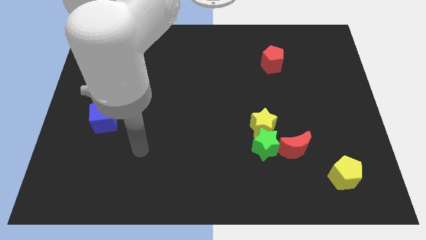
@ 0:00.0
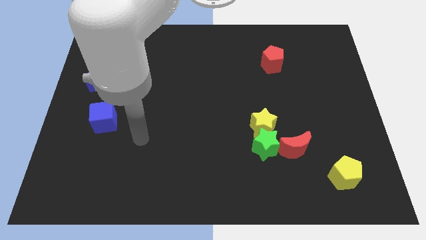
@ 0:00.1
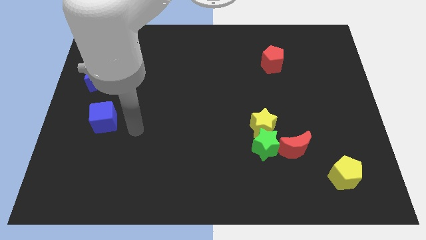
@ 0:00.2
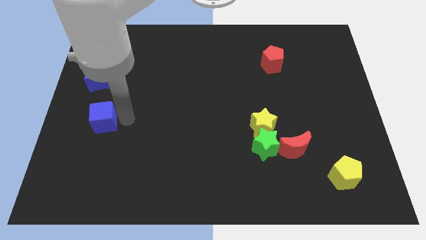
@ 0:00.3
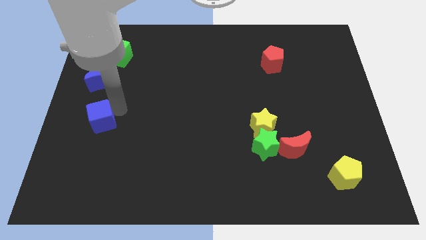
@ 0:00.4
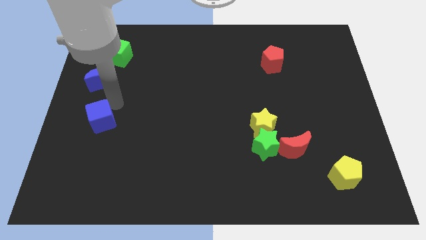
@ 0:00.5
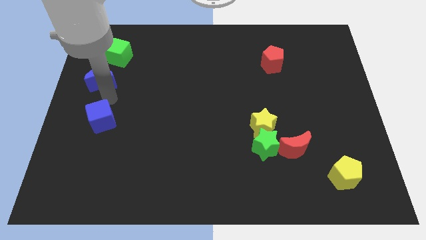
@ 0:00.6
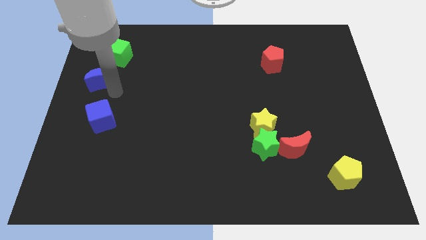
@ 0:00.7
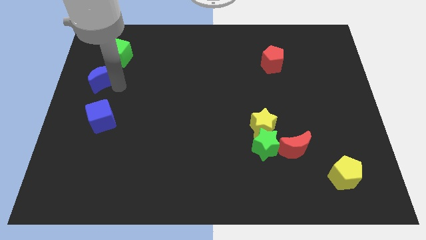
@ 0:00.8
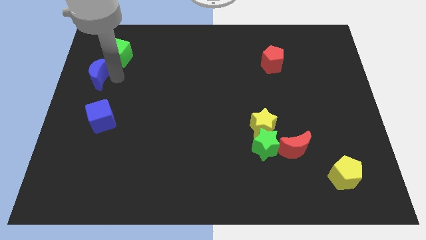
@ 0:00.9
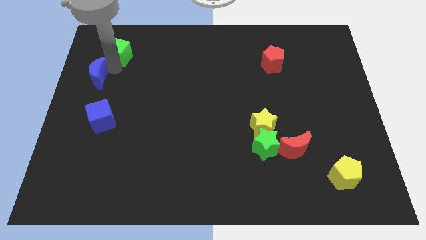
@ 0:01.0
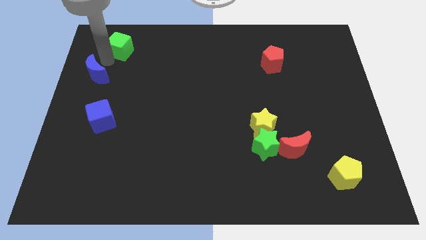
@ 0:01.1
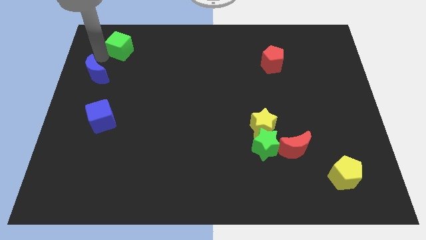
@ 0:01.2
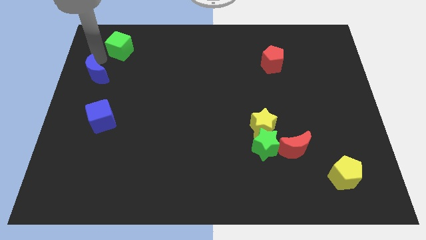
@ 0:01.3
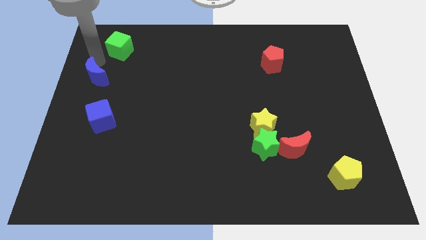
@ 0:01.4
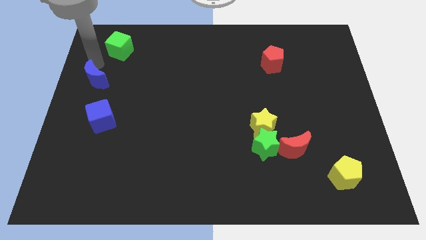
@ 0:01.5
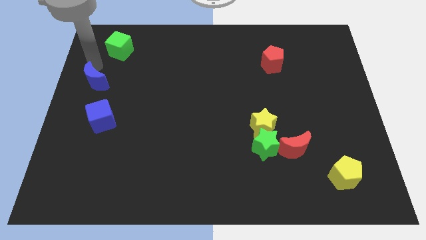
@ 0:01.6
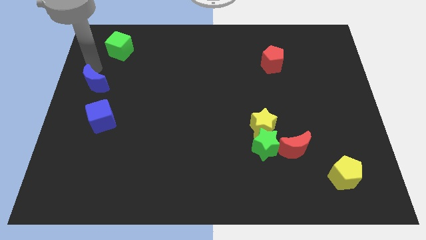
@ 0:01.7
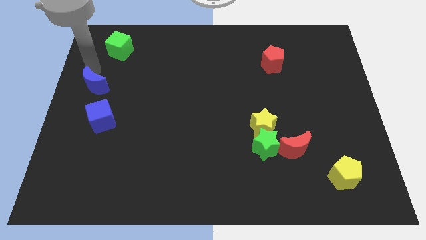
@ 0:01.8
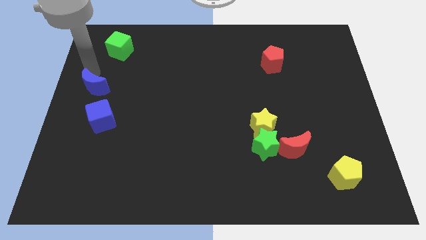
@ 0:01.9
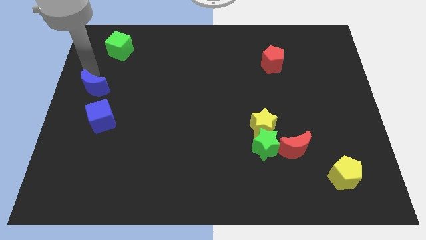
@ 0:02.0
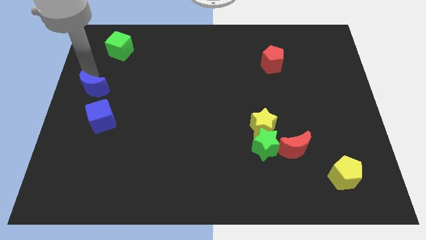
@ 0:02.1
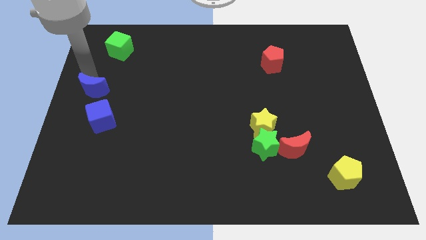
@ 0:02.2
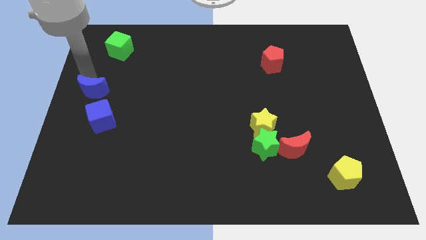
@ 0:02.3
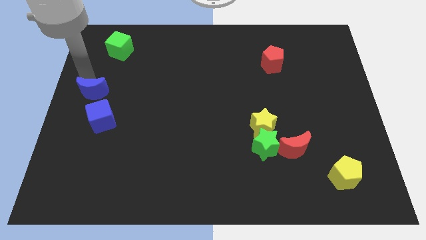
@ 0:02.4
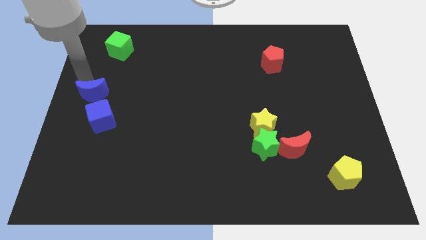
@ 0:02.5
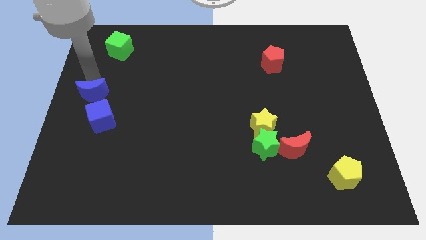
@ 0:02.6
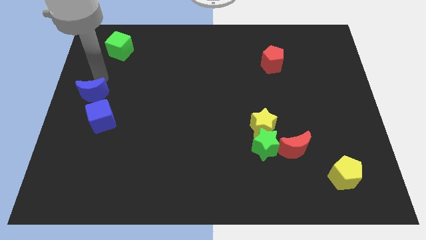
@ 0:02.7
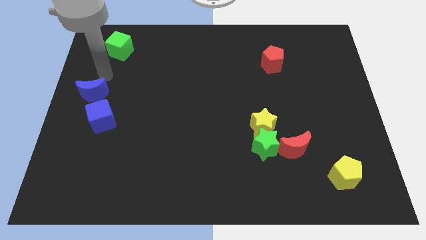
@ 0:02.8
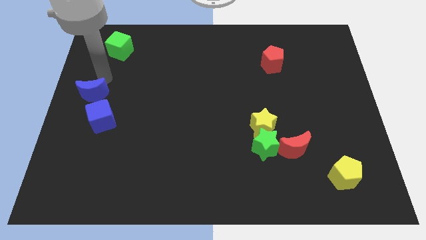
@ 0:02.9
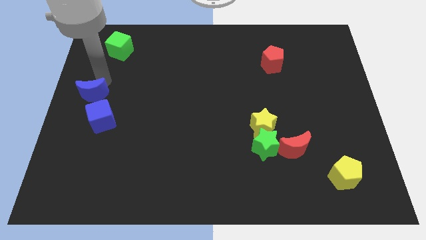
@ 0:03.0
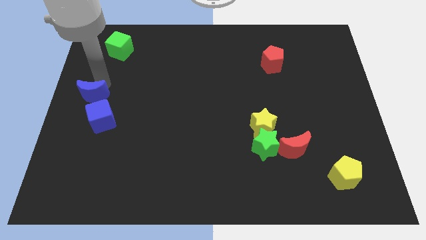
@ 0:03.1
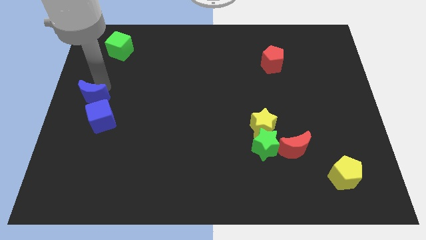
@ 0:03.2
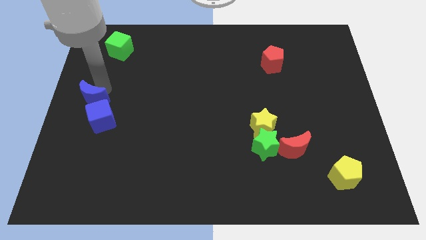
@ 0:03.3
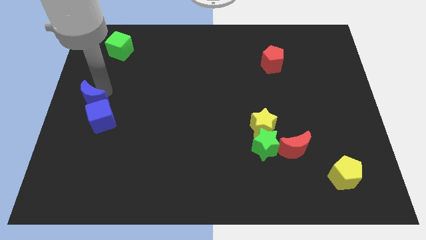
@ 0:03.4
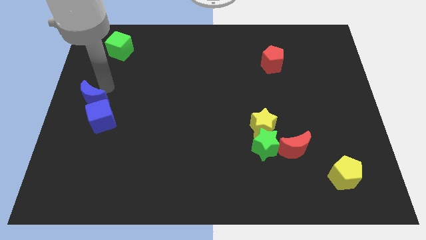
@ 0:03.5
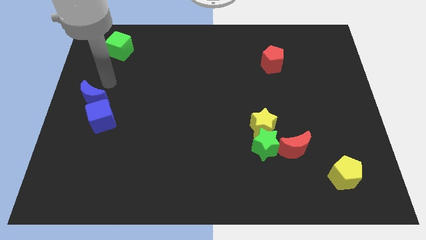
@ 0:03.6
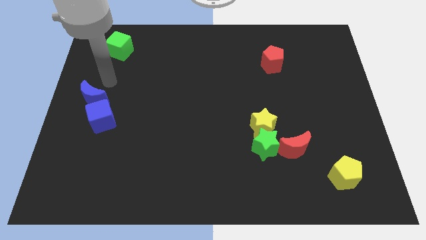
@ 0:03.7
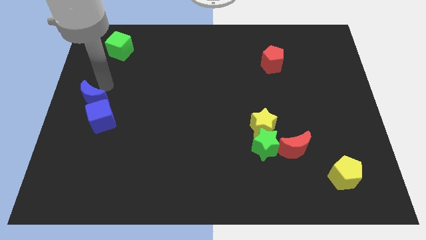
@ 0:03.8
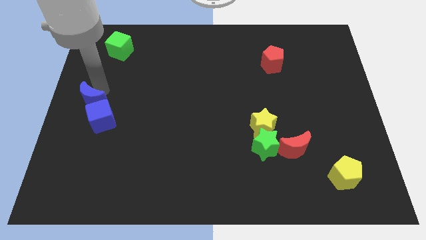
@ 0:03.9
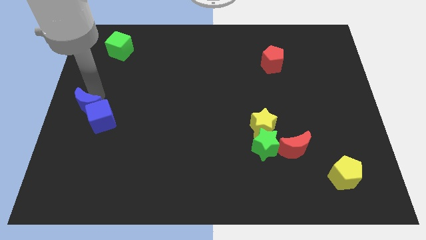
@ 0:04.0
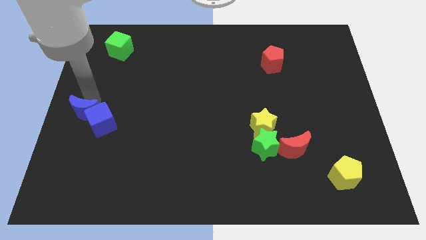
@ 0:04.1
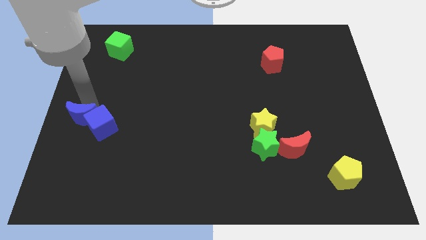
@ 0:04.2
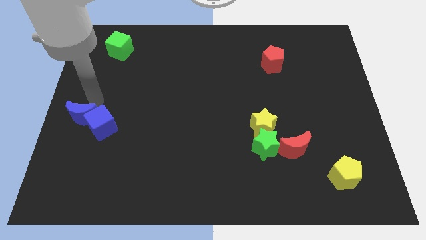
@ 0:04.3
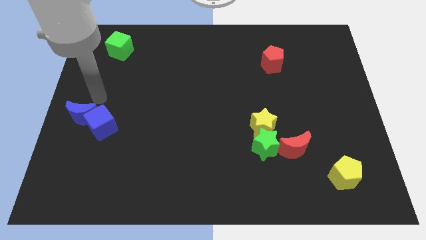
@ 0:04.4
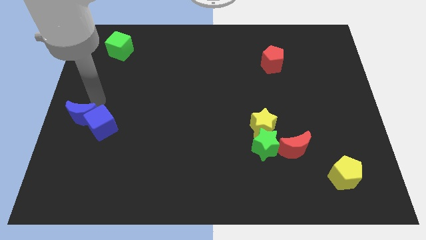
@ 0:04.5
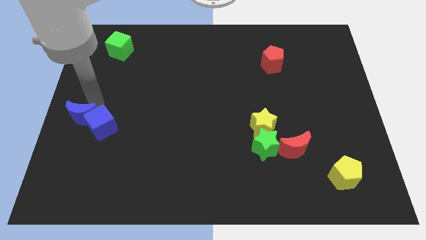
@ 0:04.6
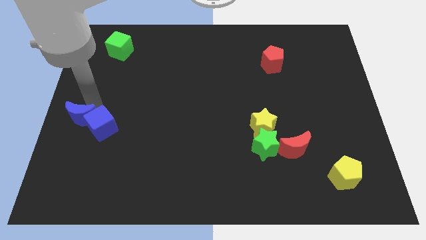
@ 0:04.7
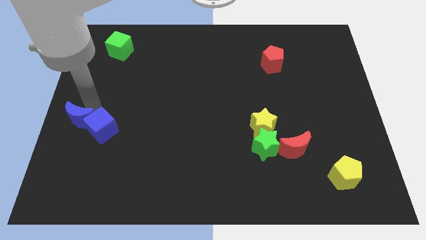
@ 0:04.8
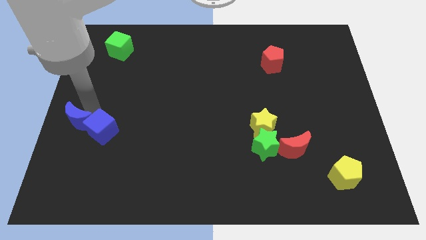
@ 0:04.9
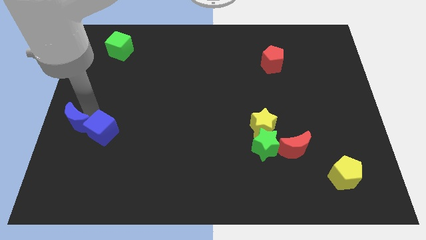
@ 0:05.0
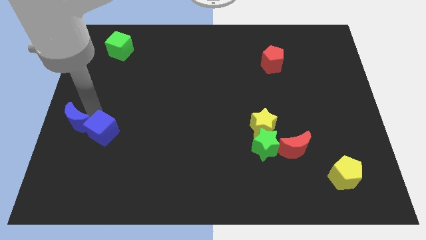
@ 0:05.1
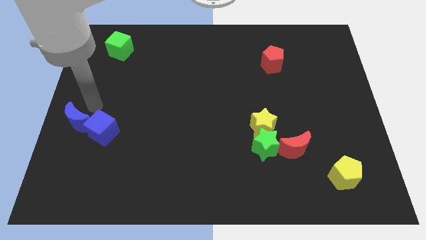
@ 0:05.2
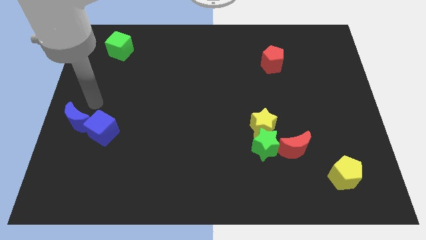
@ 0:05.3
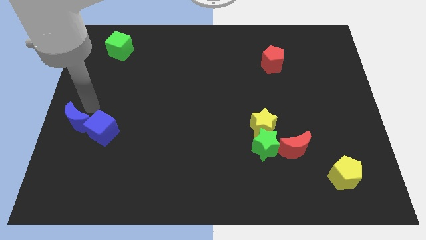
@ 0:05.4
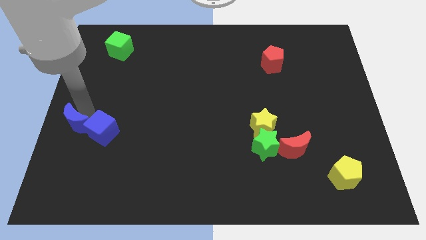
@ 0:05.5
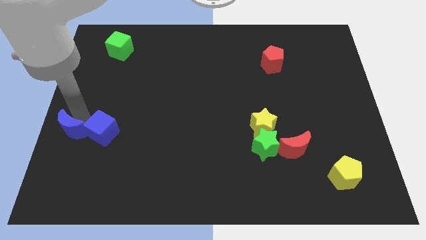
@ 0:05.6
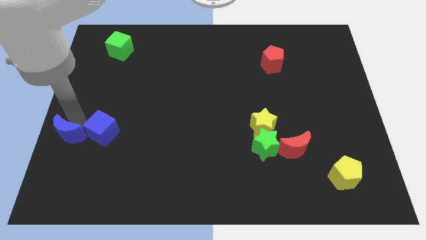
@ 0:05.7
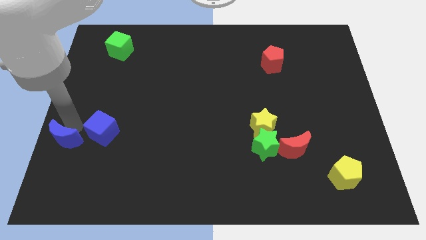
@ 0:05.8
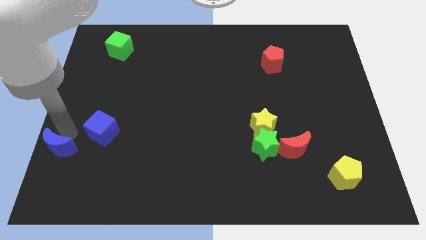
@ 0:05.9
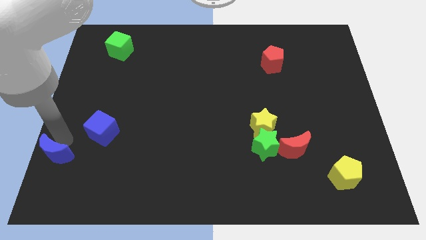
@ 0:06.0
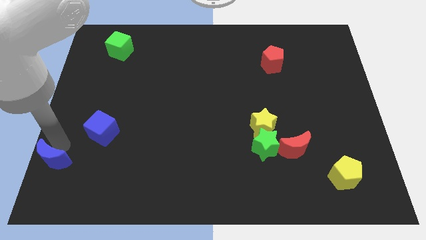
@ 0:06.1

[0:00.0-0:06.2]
push the blue moon to the bottom left
